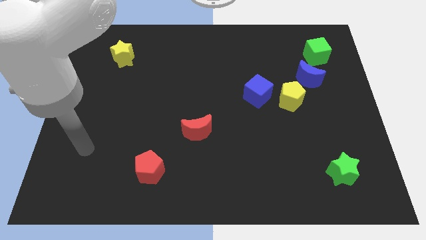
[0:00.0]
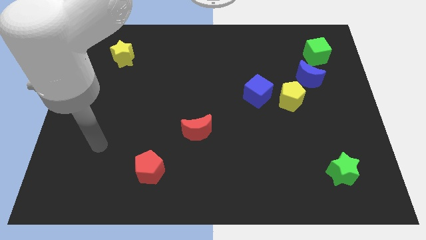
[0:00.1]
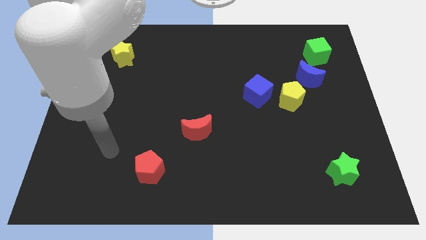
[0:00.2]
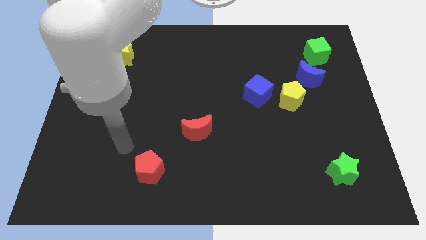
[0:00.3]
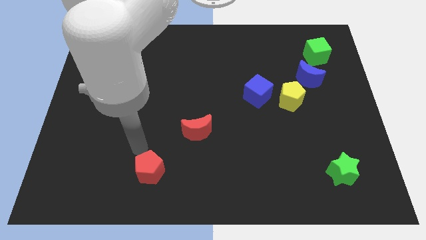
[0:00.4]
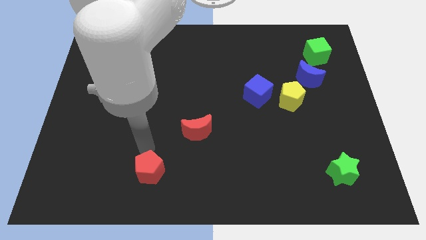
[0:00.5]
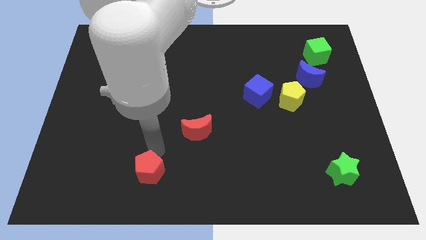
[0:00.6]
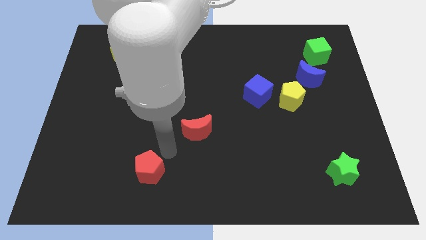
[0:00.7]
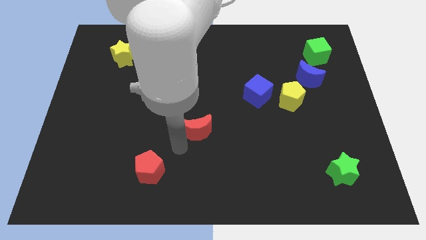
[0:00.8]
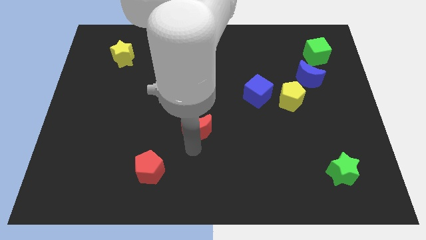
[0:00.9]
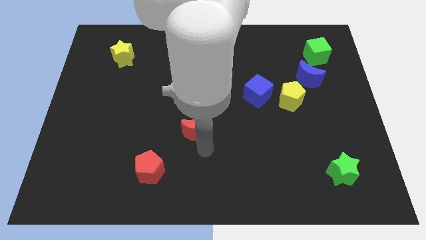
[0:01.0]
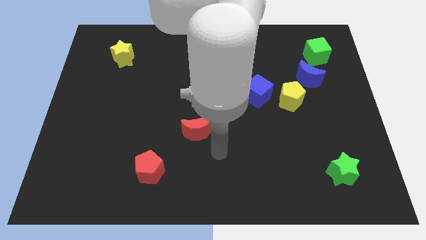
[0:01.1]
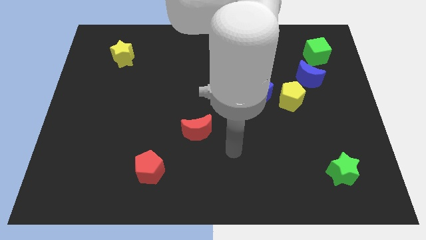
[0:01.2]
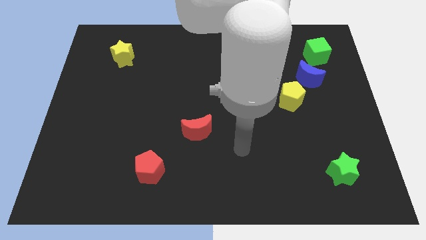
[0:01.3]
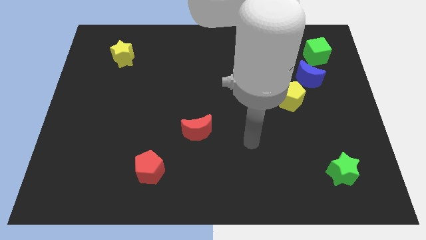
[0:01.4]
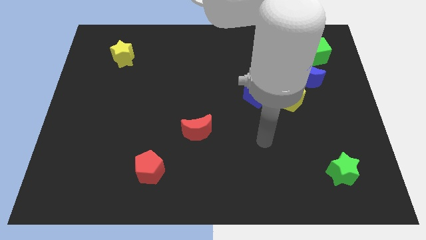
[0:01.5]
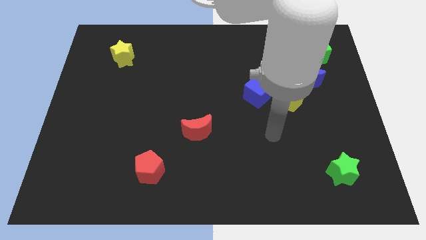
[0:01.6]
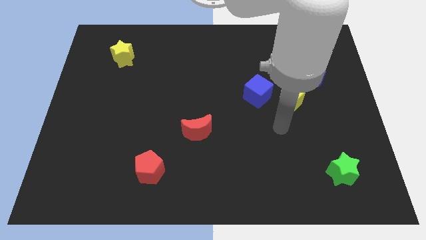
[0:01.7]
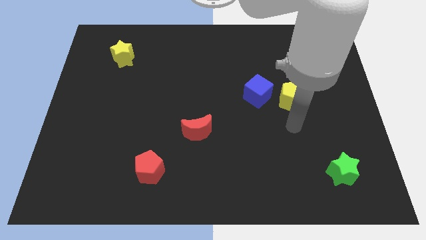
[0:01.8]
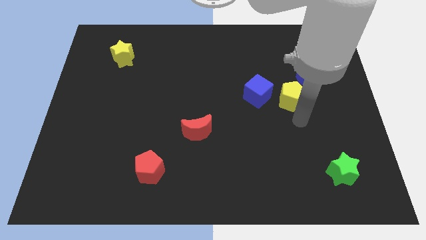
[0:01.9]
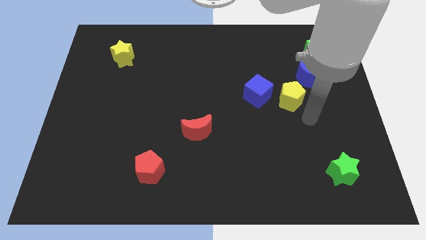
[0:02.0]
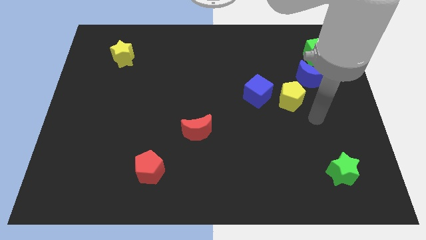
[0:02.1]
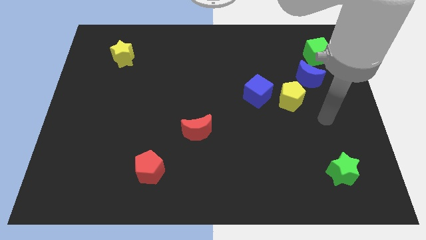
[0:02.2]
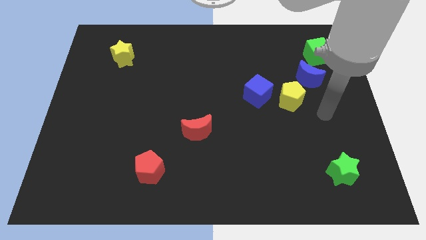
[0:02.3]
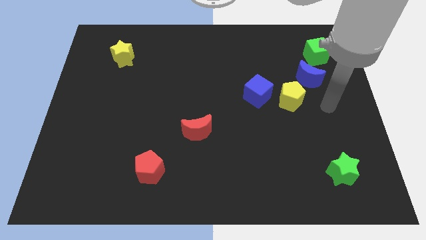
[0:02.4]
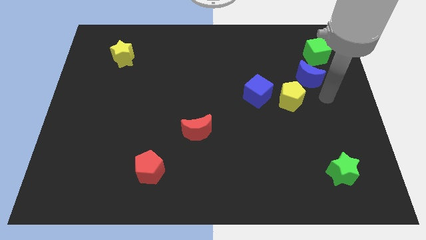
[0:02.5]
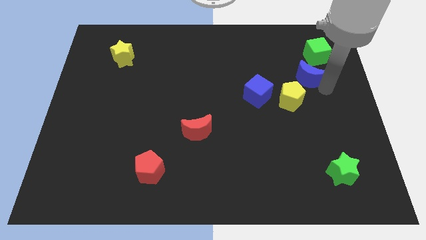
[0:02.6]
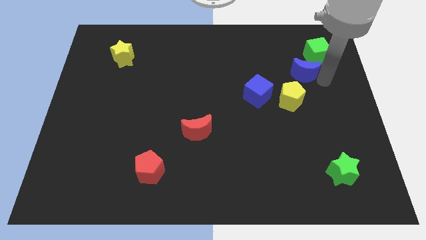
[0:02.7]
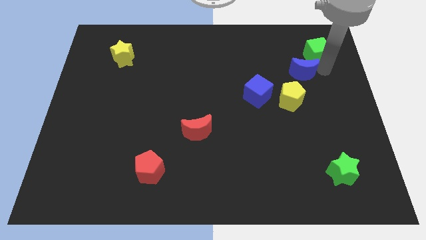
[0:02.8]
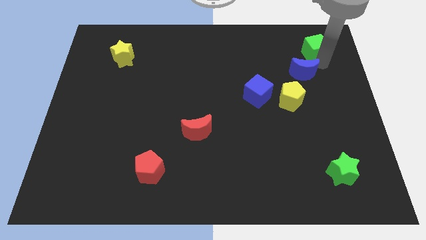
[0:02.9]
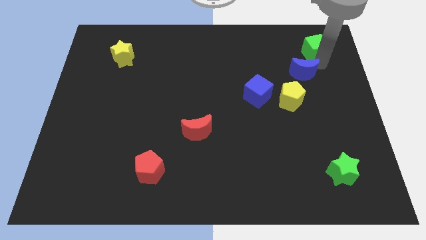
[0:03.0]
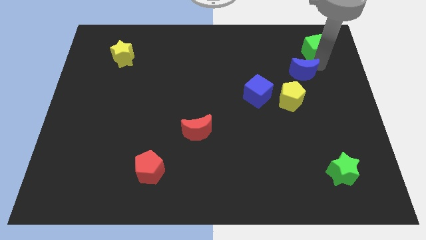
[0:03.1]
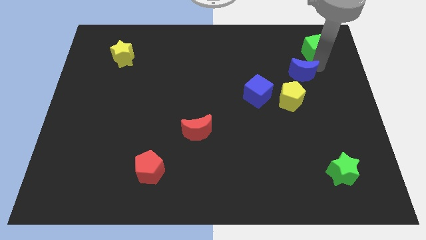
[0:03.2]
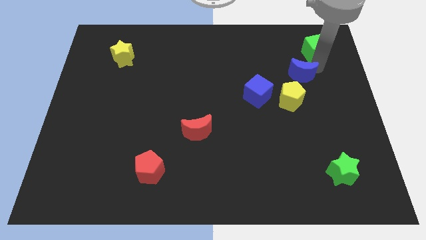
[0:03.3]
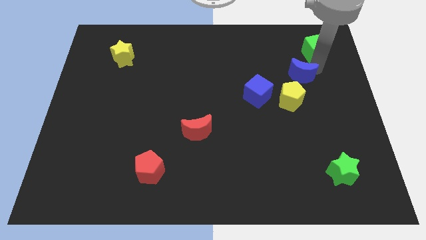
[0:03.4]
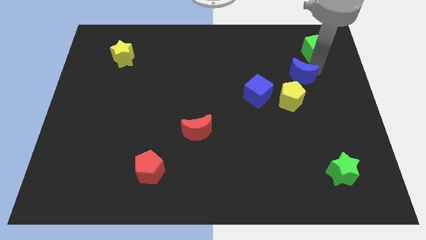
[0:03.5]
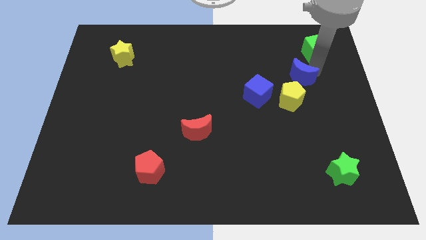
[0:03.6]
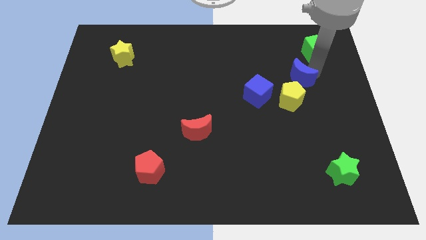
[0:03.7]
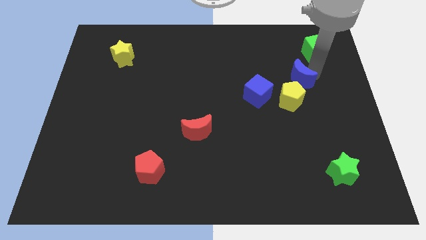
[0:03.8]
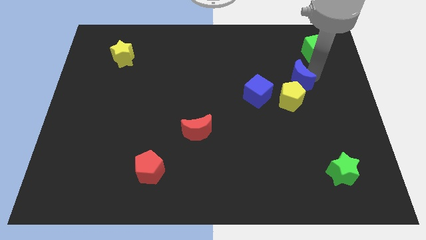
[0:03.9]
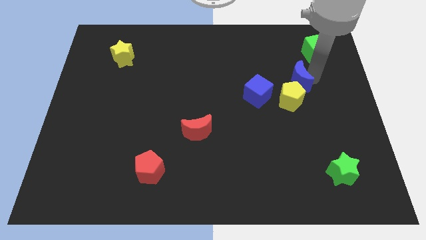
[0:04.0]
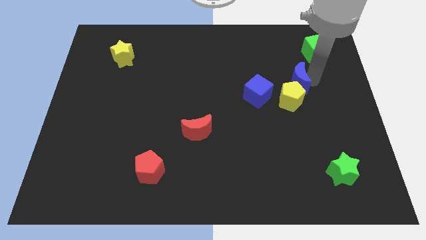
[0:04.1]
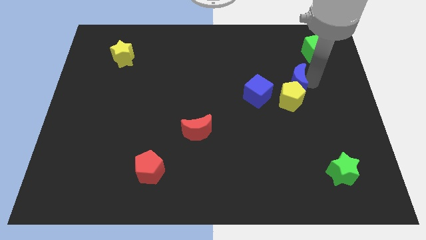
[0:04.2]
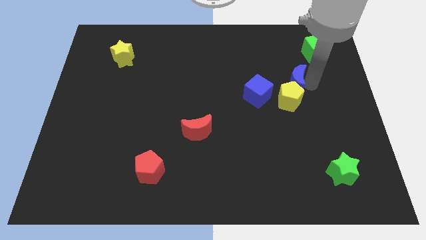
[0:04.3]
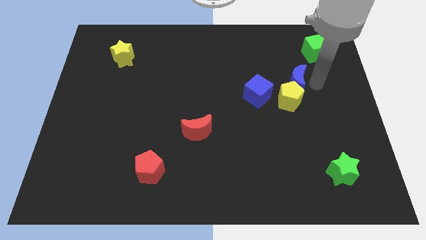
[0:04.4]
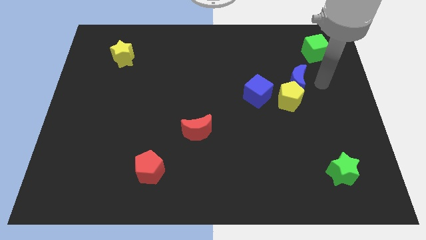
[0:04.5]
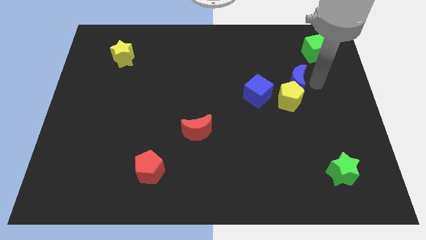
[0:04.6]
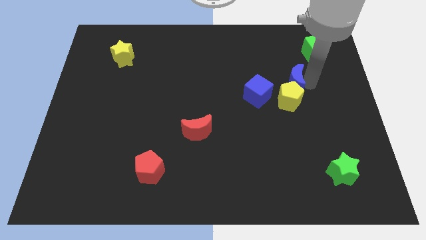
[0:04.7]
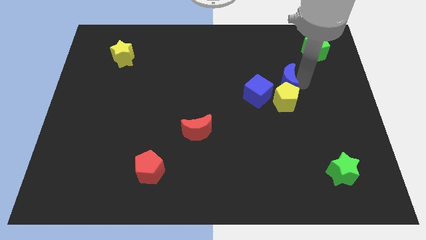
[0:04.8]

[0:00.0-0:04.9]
slide the blue moon diagonally up and to the left of the yellow pentagon

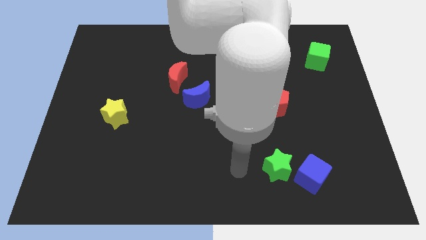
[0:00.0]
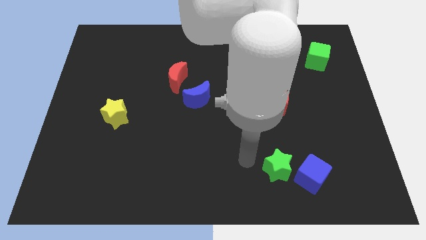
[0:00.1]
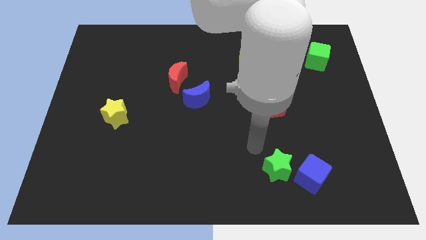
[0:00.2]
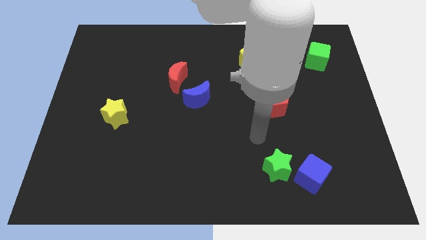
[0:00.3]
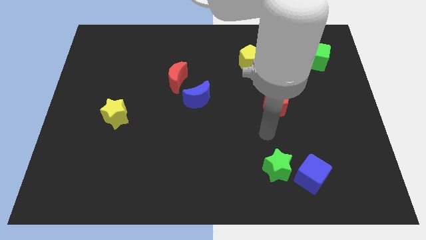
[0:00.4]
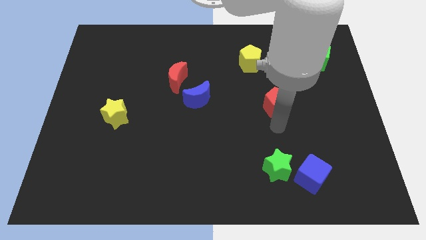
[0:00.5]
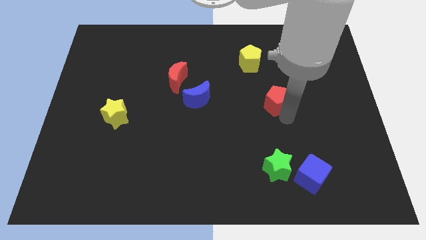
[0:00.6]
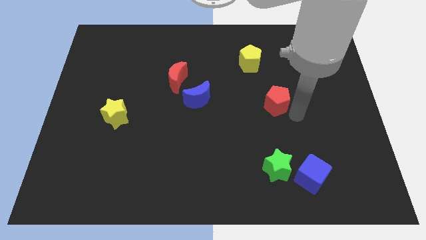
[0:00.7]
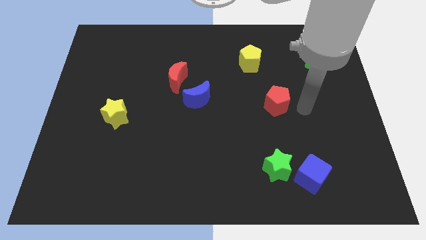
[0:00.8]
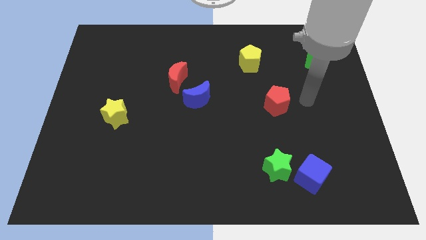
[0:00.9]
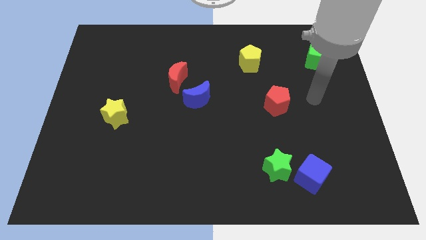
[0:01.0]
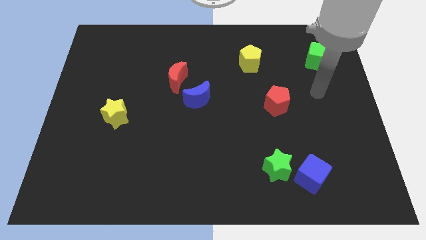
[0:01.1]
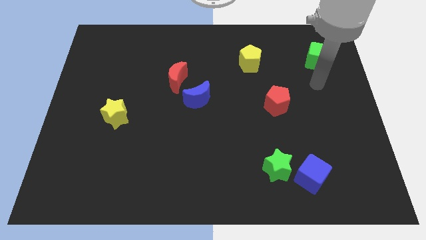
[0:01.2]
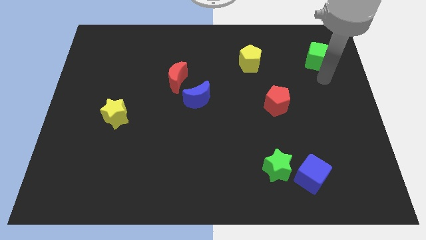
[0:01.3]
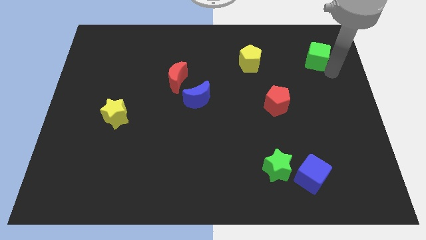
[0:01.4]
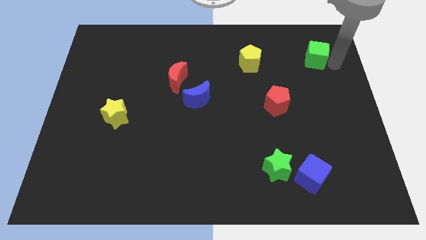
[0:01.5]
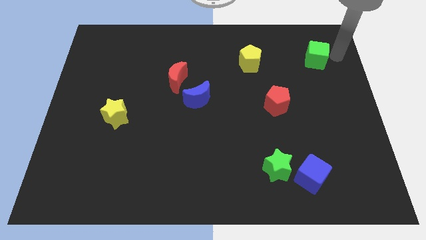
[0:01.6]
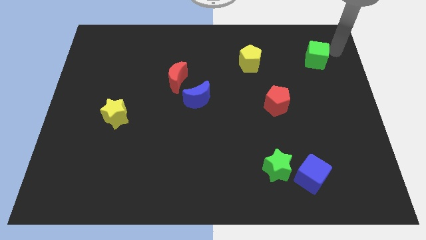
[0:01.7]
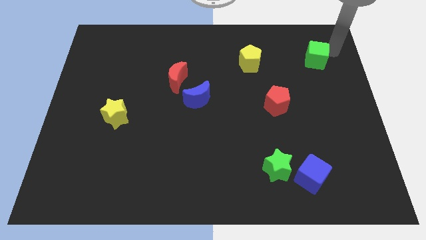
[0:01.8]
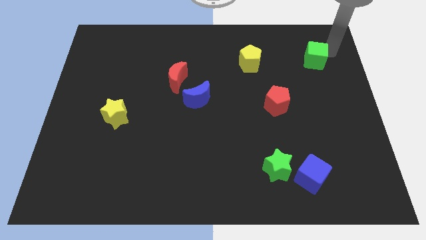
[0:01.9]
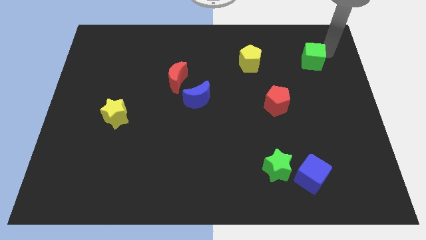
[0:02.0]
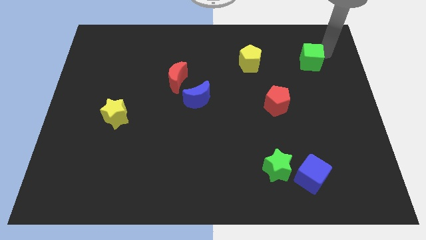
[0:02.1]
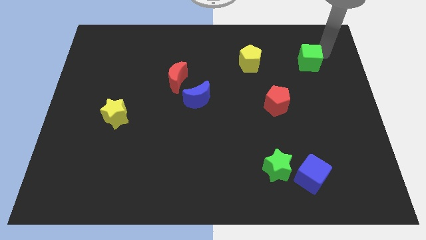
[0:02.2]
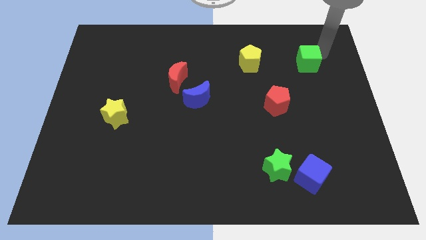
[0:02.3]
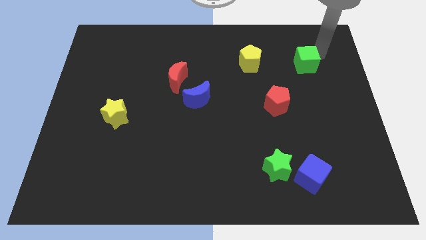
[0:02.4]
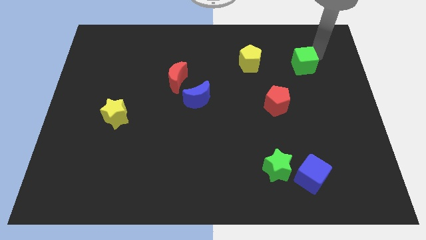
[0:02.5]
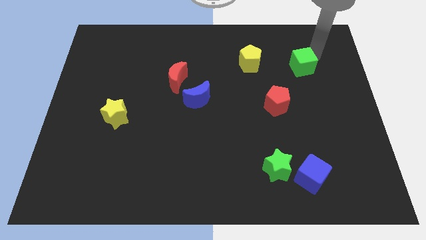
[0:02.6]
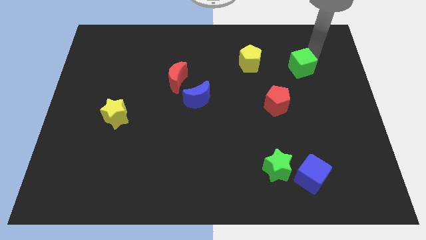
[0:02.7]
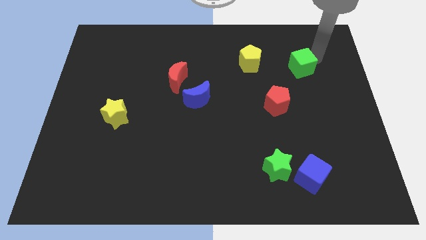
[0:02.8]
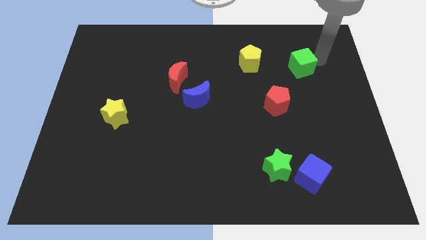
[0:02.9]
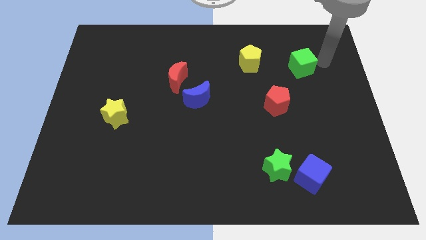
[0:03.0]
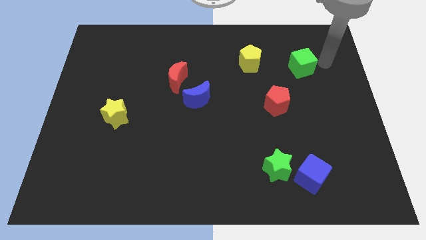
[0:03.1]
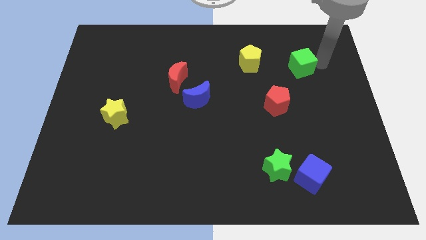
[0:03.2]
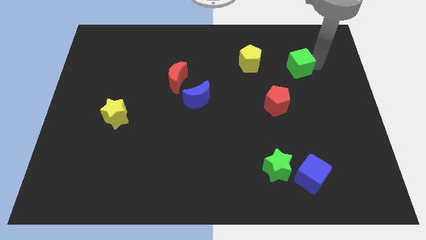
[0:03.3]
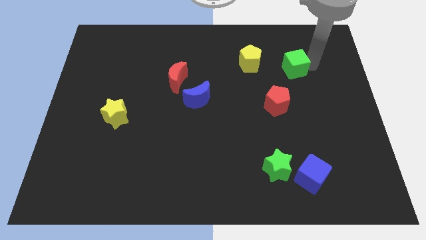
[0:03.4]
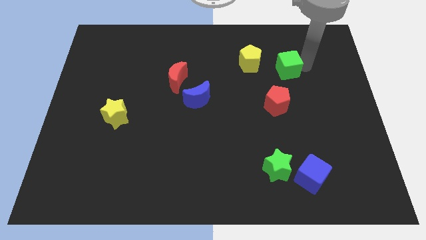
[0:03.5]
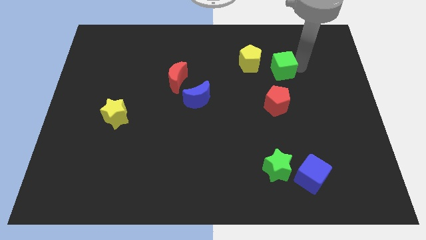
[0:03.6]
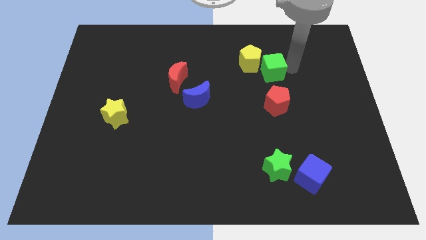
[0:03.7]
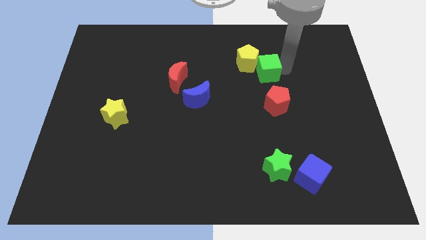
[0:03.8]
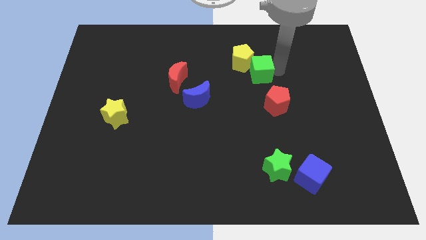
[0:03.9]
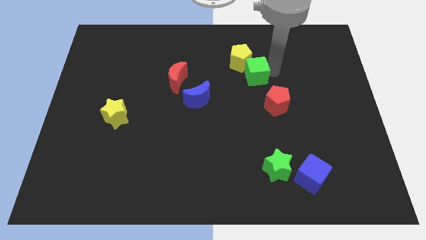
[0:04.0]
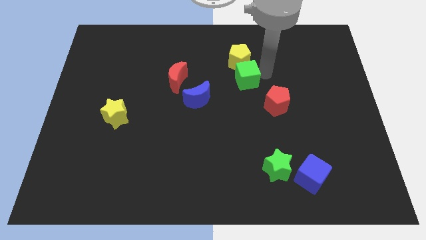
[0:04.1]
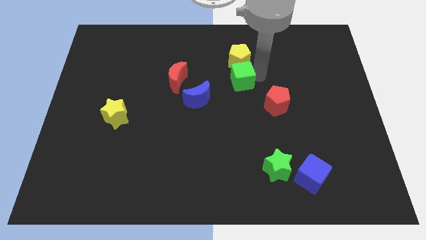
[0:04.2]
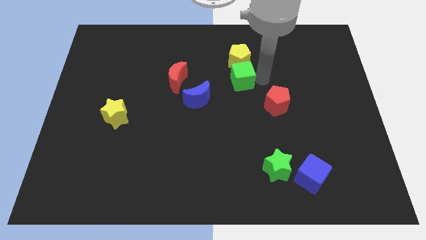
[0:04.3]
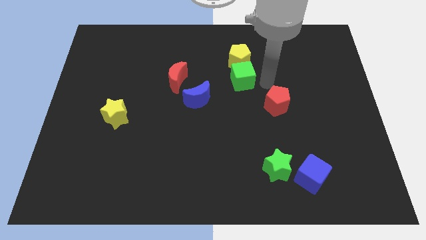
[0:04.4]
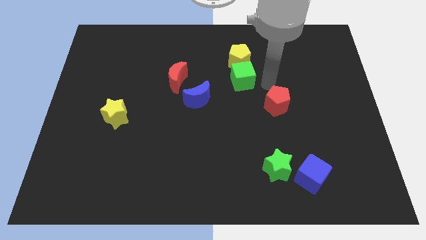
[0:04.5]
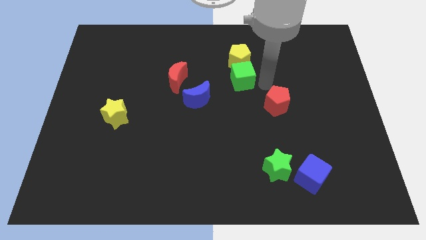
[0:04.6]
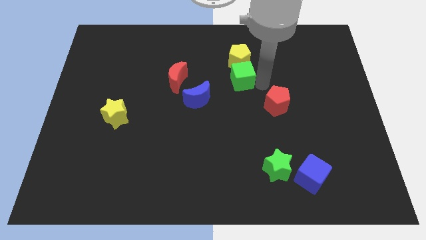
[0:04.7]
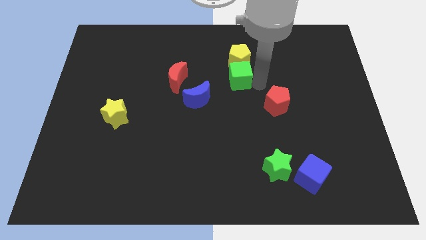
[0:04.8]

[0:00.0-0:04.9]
slide the green cube to the bottom left of the yellow pentagon
